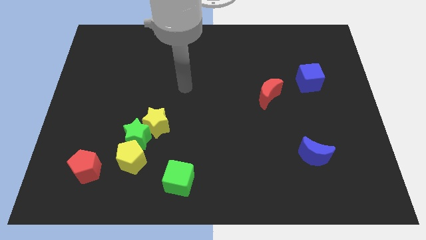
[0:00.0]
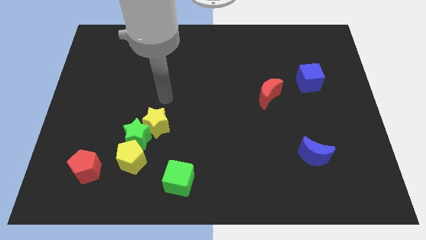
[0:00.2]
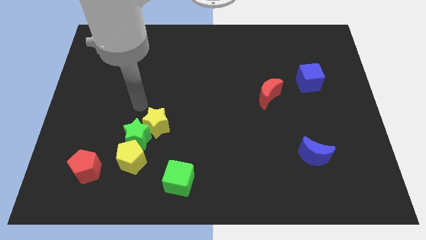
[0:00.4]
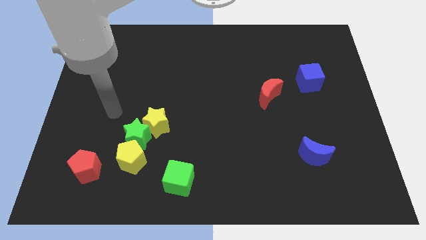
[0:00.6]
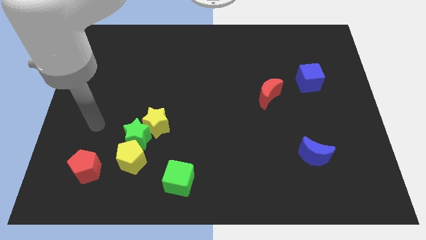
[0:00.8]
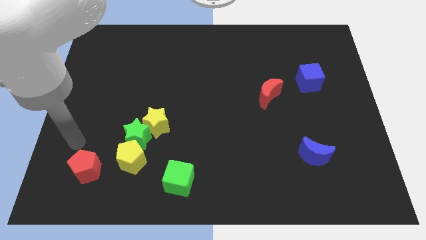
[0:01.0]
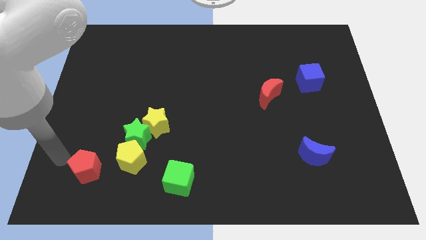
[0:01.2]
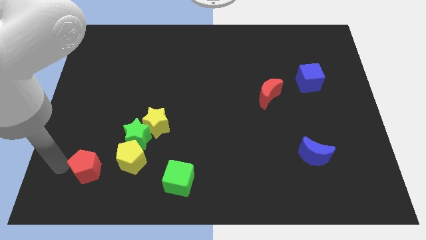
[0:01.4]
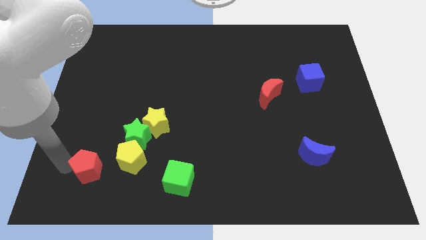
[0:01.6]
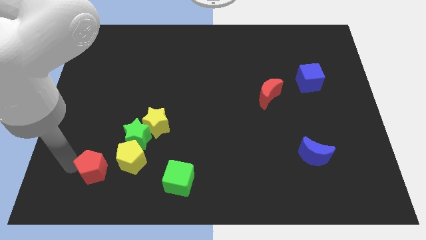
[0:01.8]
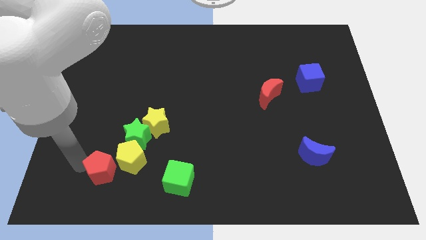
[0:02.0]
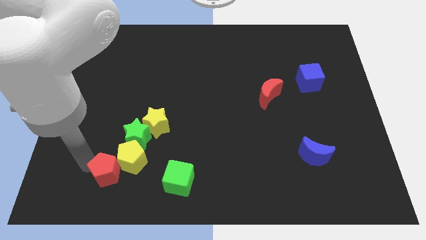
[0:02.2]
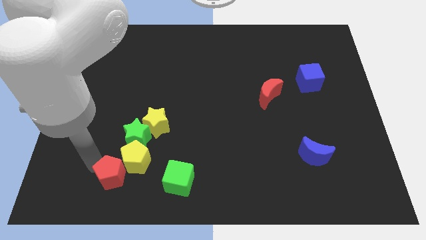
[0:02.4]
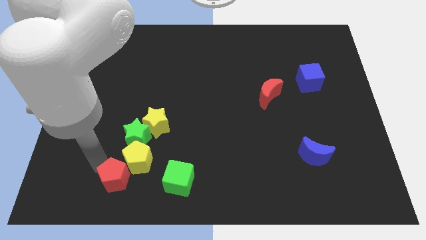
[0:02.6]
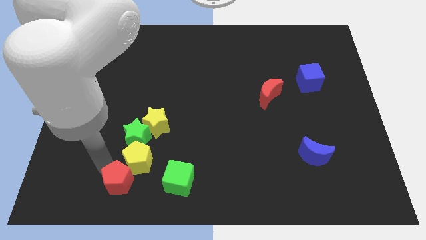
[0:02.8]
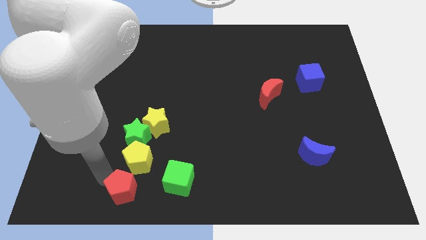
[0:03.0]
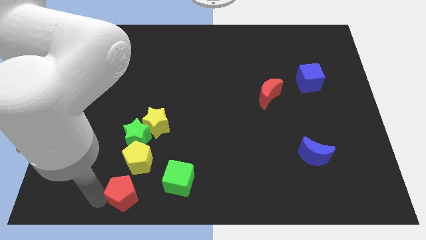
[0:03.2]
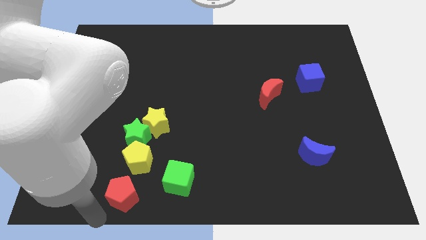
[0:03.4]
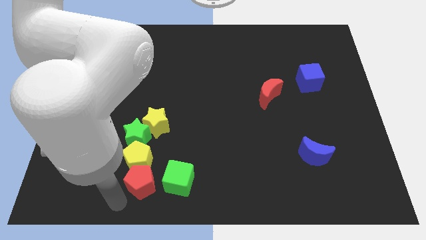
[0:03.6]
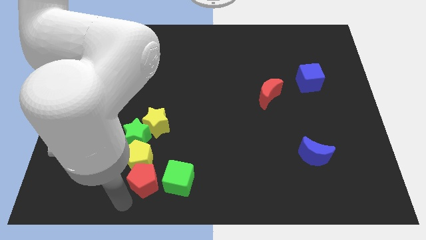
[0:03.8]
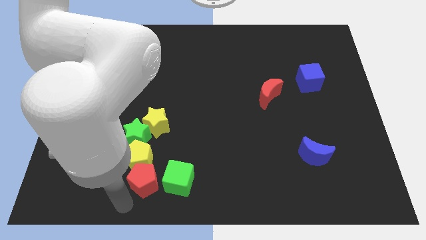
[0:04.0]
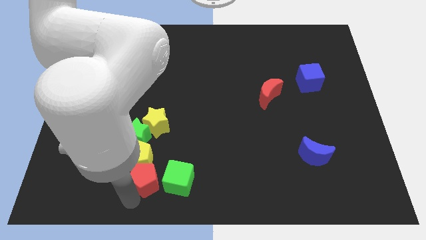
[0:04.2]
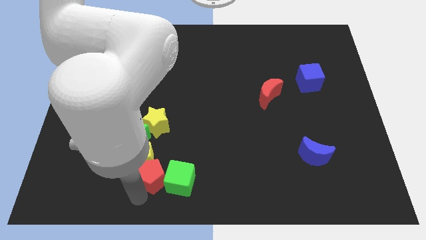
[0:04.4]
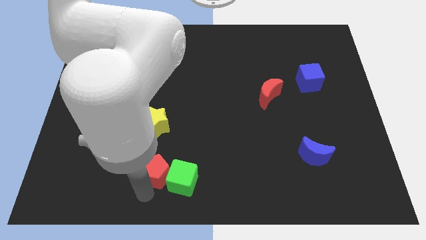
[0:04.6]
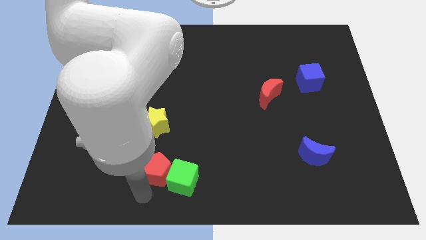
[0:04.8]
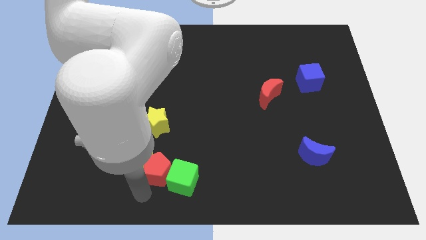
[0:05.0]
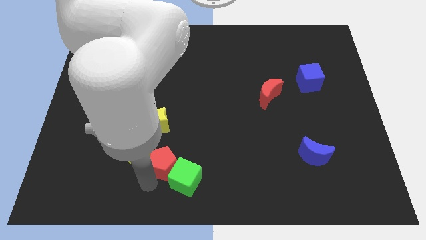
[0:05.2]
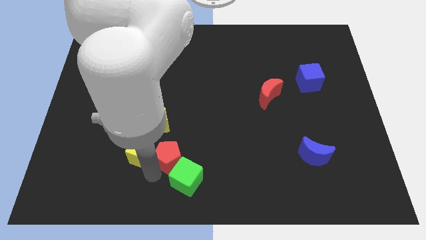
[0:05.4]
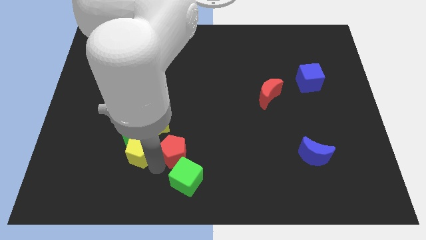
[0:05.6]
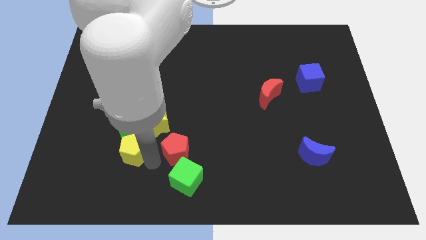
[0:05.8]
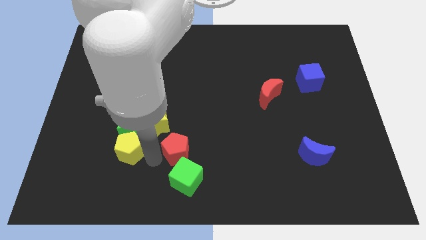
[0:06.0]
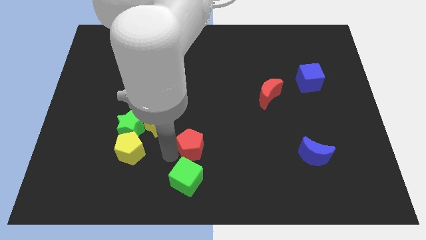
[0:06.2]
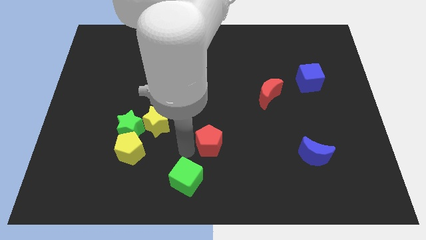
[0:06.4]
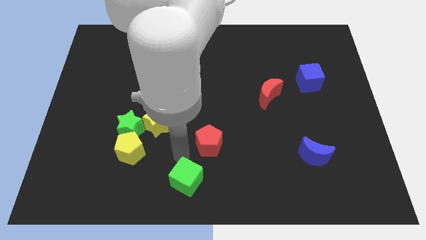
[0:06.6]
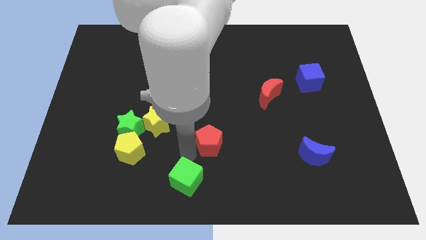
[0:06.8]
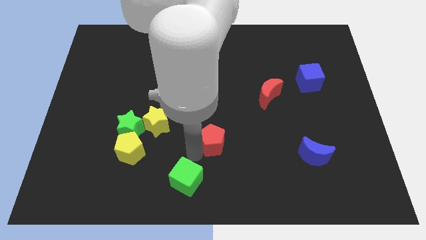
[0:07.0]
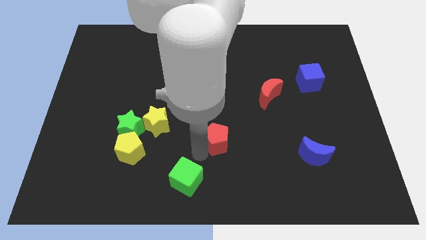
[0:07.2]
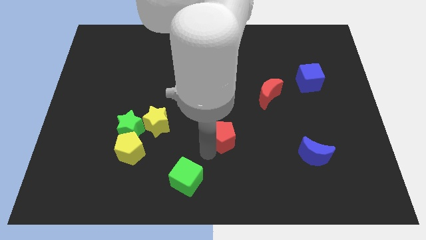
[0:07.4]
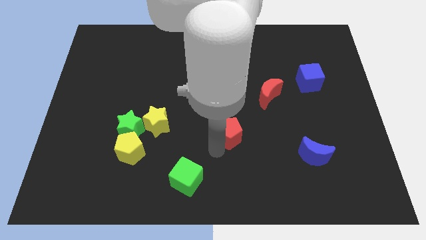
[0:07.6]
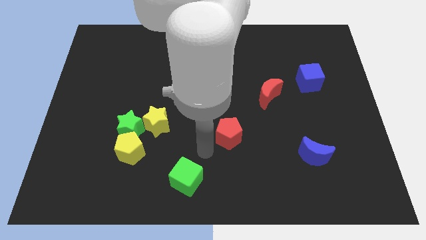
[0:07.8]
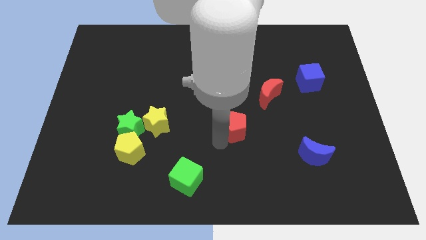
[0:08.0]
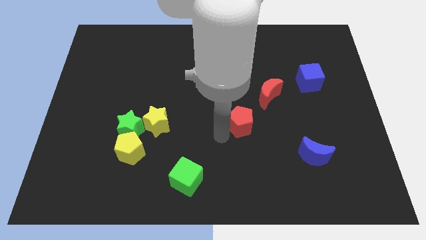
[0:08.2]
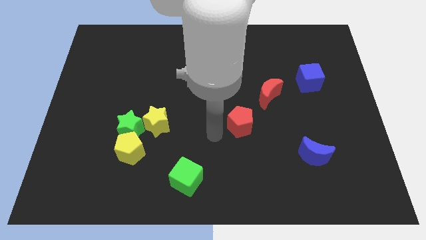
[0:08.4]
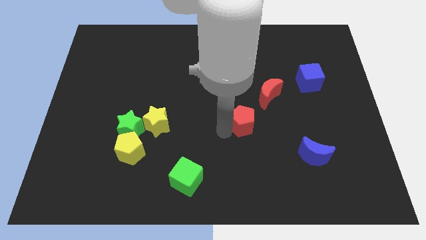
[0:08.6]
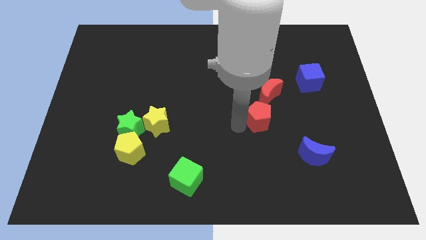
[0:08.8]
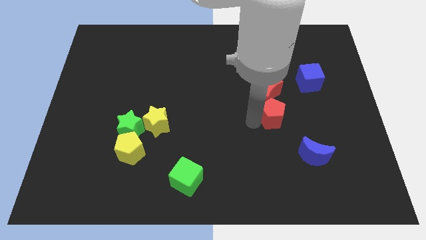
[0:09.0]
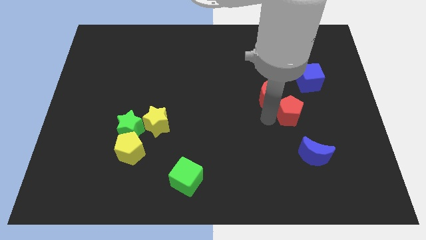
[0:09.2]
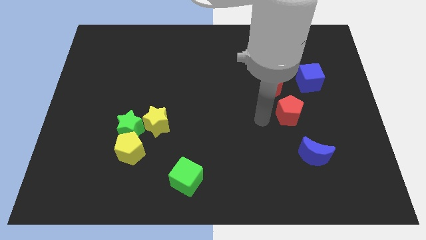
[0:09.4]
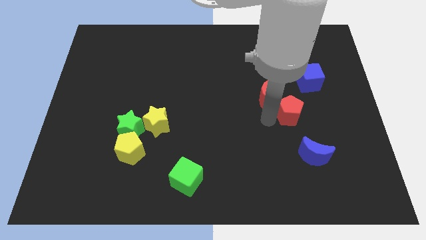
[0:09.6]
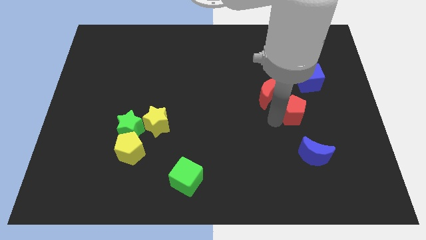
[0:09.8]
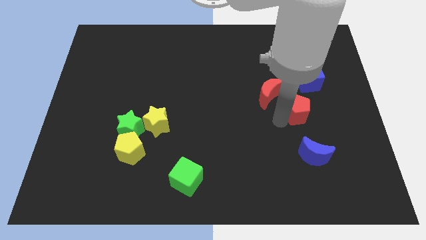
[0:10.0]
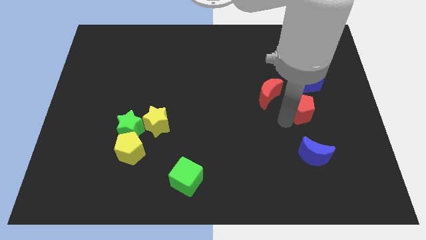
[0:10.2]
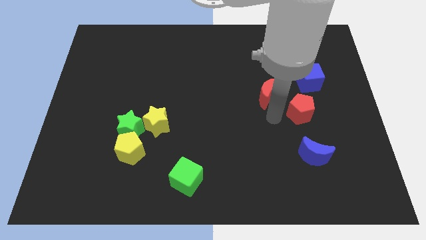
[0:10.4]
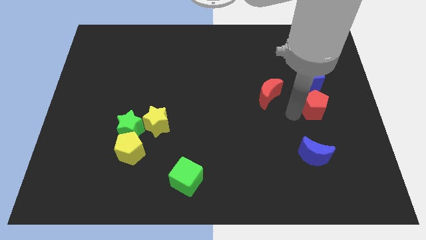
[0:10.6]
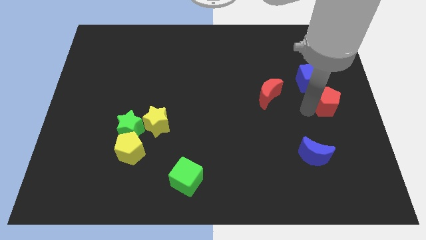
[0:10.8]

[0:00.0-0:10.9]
push the red pentagon to the center right
